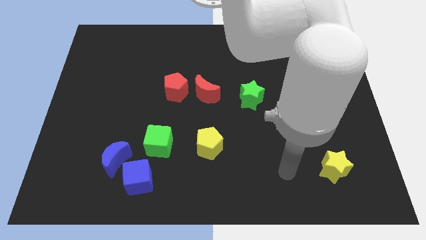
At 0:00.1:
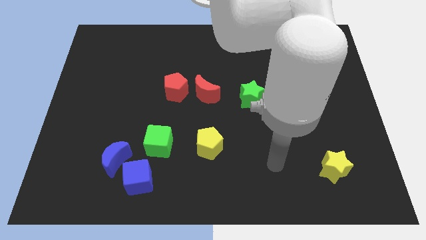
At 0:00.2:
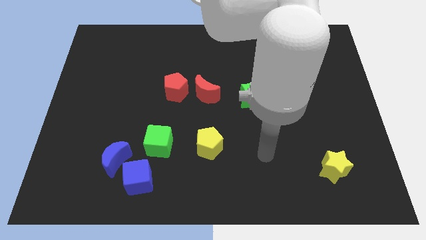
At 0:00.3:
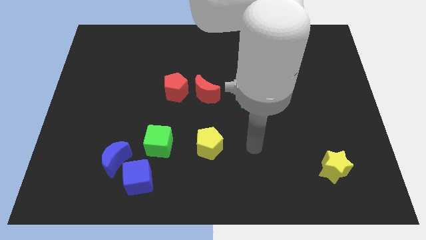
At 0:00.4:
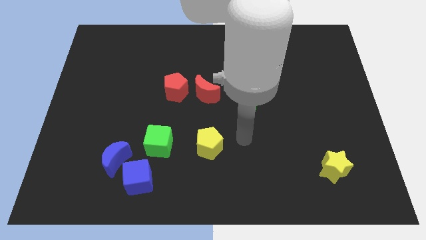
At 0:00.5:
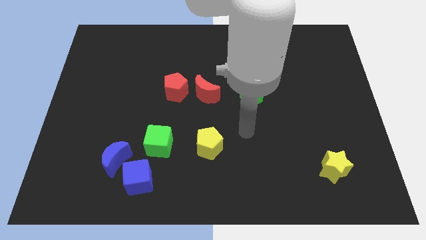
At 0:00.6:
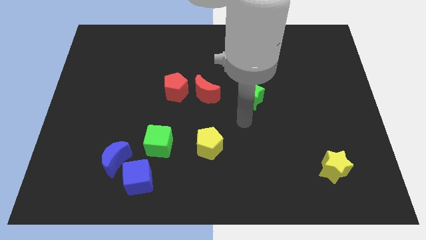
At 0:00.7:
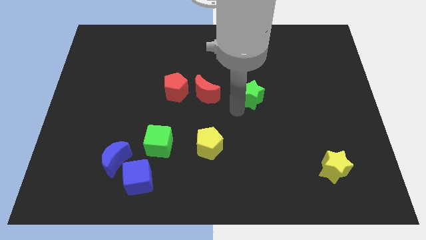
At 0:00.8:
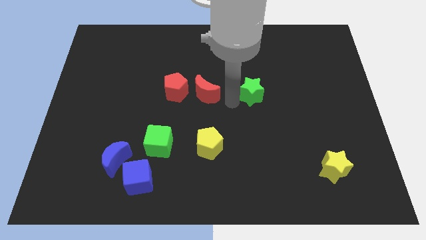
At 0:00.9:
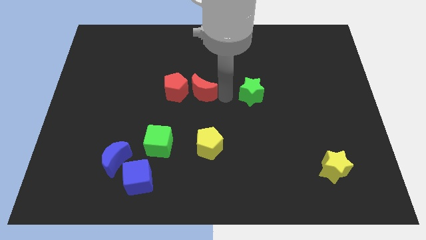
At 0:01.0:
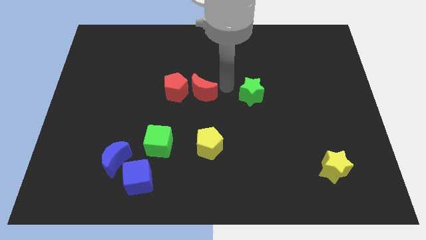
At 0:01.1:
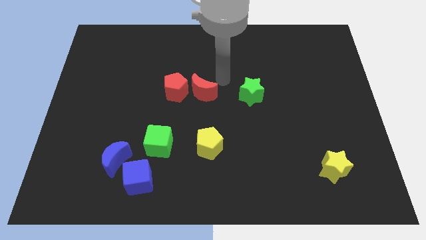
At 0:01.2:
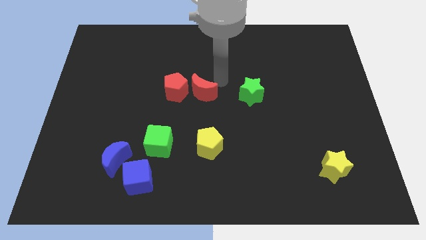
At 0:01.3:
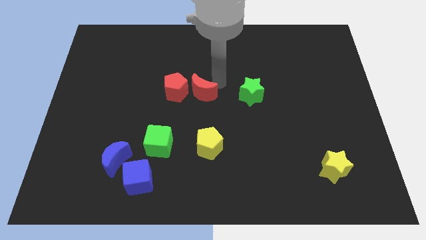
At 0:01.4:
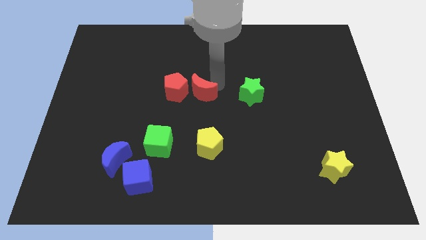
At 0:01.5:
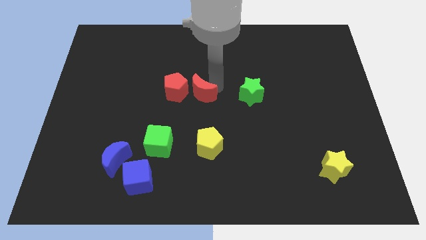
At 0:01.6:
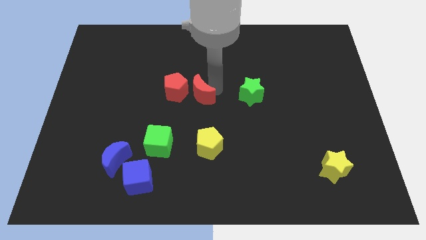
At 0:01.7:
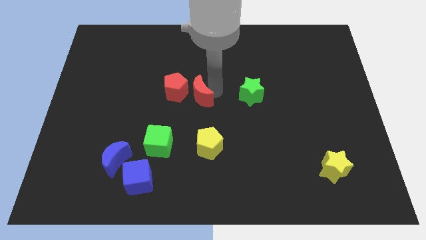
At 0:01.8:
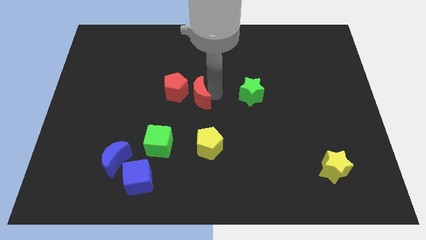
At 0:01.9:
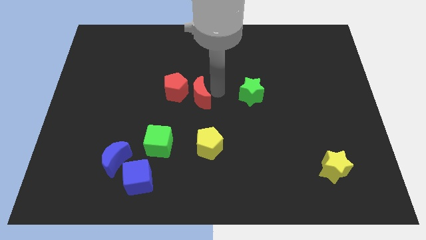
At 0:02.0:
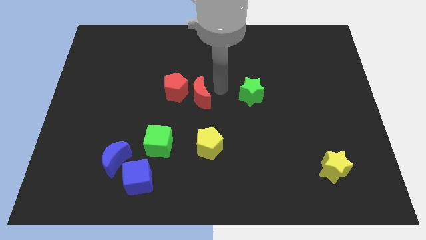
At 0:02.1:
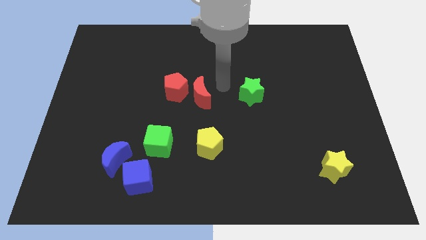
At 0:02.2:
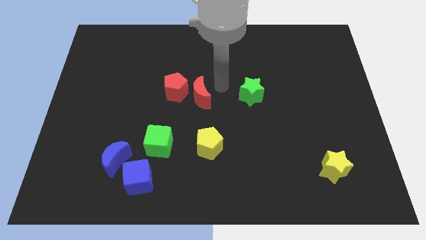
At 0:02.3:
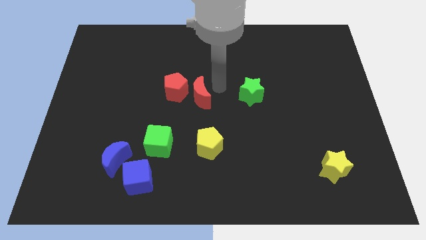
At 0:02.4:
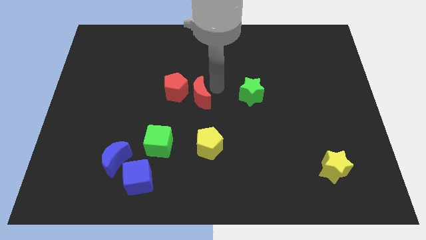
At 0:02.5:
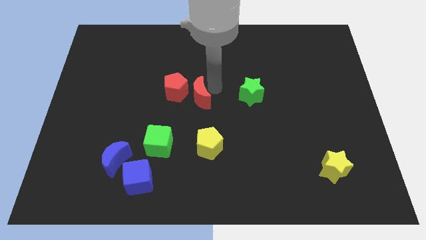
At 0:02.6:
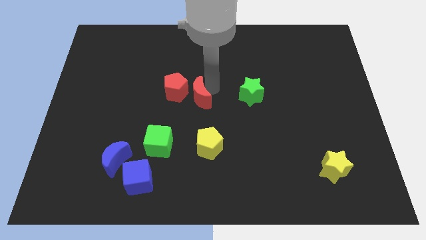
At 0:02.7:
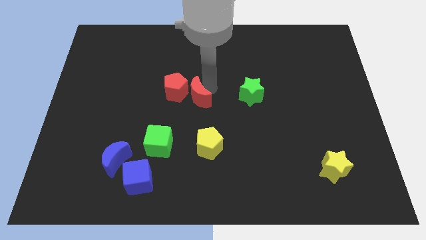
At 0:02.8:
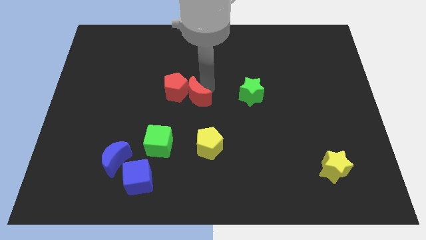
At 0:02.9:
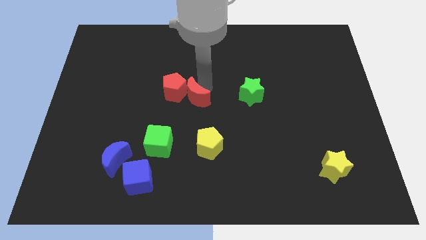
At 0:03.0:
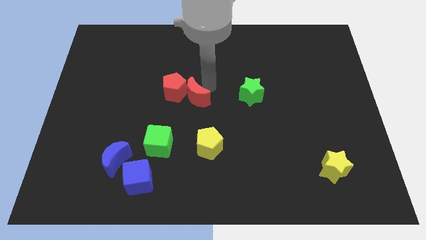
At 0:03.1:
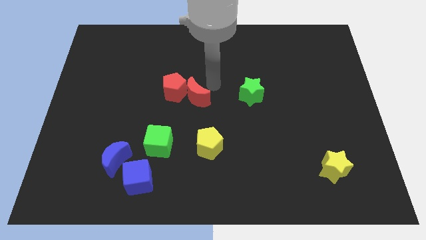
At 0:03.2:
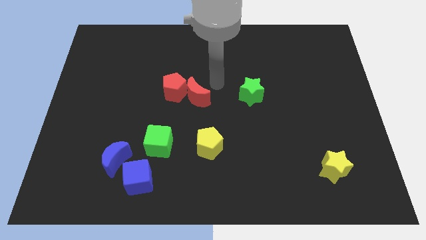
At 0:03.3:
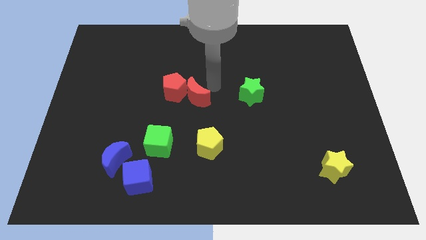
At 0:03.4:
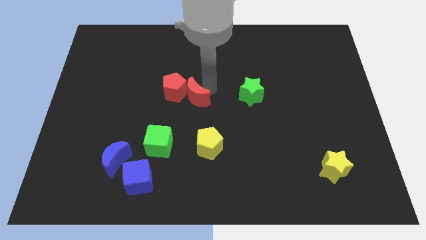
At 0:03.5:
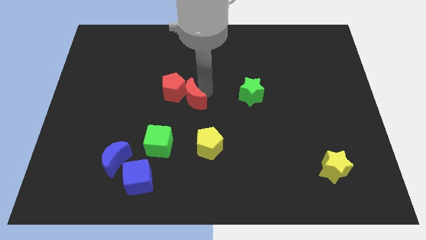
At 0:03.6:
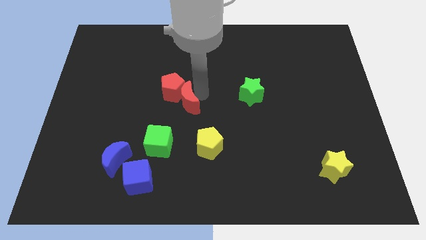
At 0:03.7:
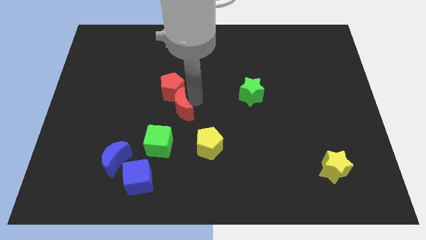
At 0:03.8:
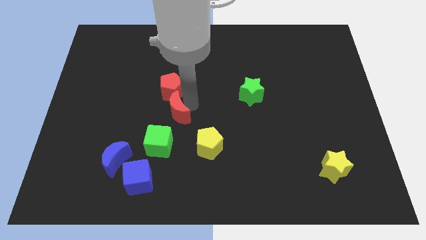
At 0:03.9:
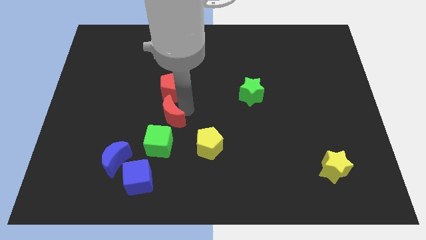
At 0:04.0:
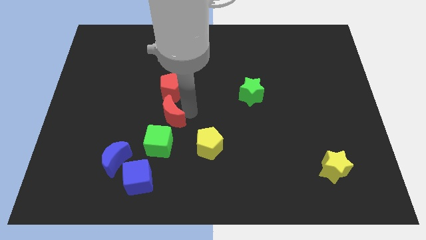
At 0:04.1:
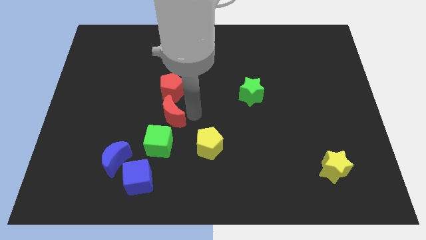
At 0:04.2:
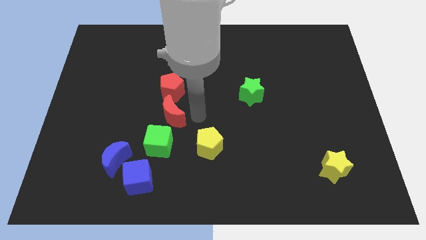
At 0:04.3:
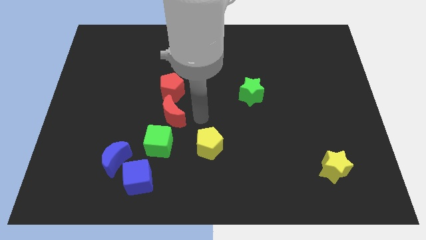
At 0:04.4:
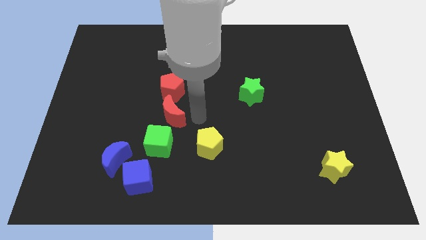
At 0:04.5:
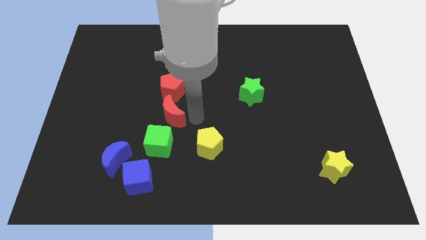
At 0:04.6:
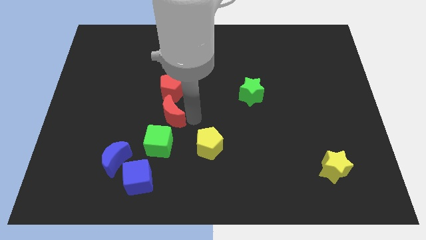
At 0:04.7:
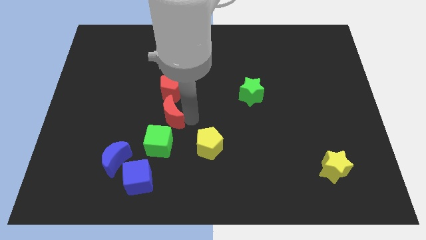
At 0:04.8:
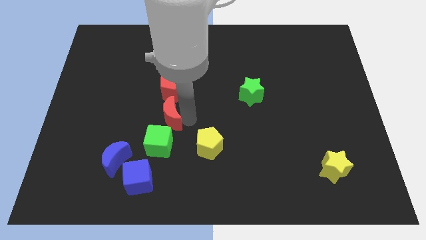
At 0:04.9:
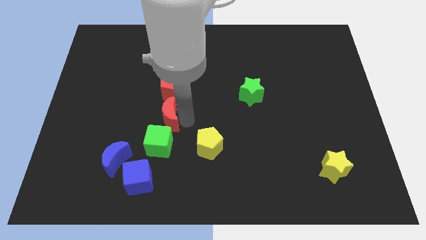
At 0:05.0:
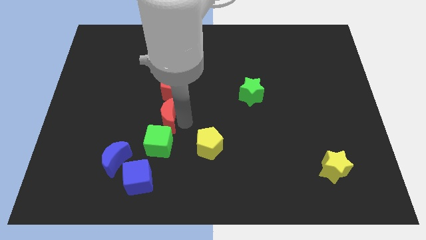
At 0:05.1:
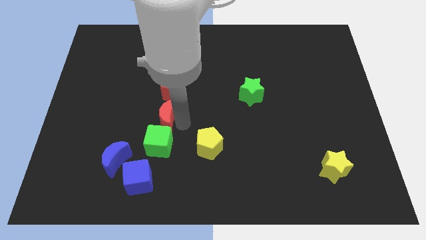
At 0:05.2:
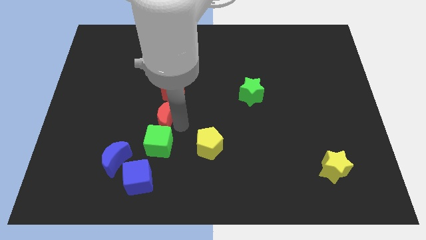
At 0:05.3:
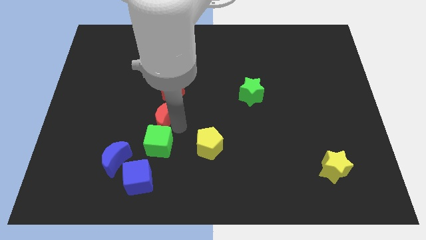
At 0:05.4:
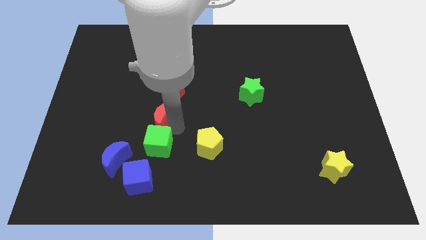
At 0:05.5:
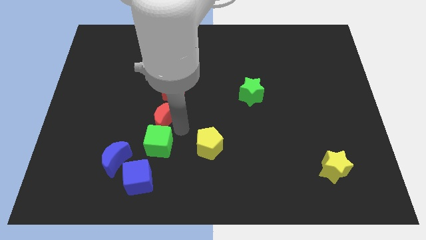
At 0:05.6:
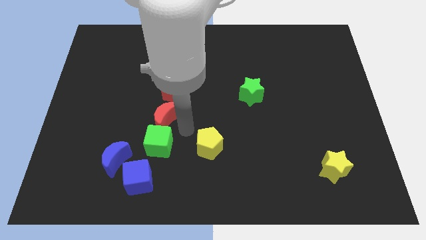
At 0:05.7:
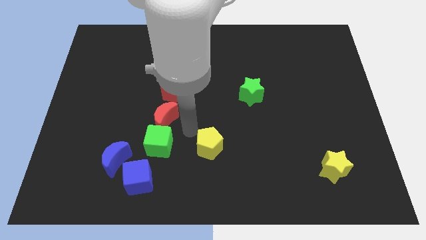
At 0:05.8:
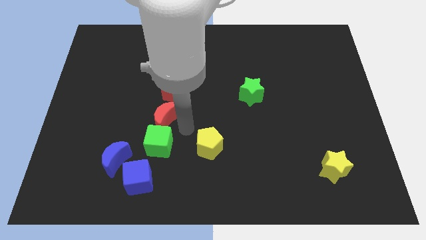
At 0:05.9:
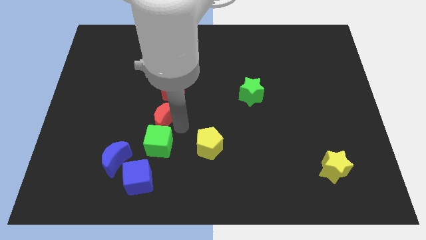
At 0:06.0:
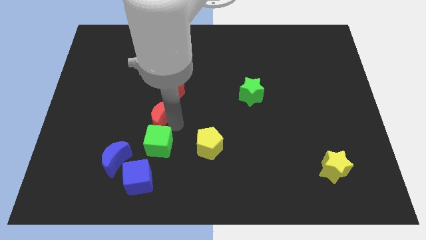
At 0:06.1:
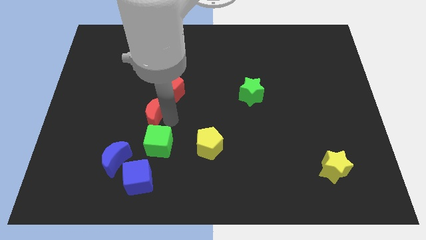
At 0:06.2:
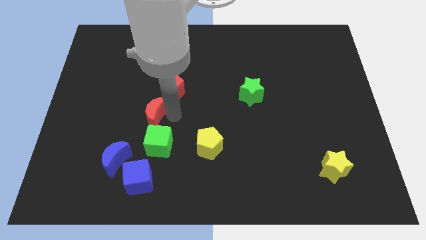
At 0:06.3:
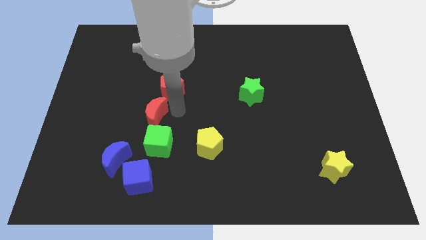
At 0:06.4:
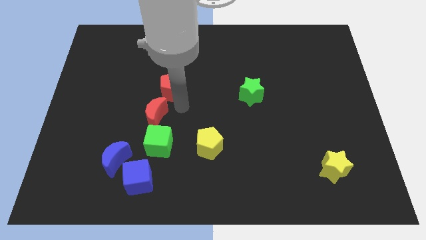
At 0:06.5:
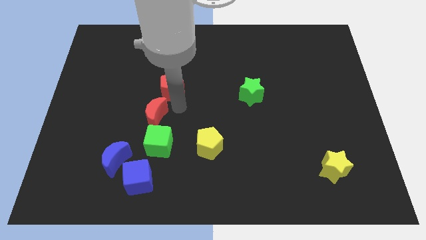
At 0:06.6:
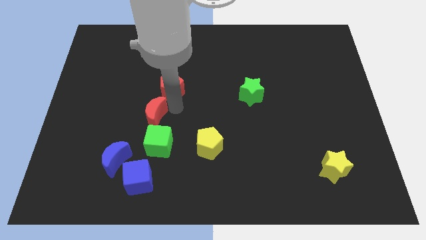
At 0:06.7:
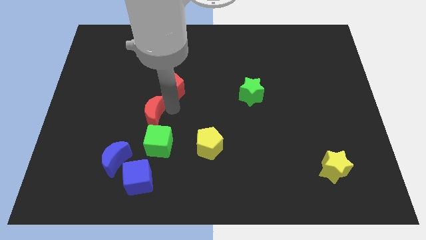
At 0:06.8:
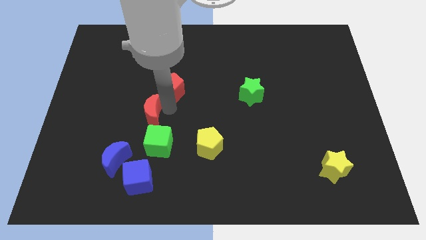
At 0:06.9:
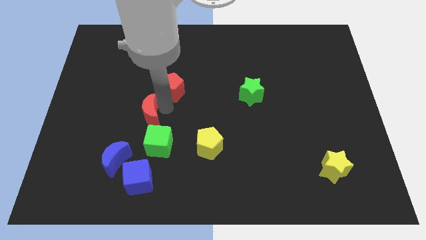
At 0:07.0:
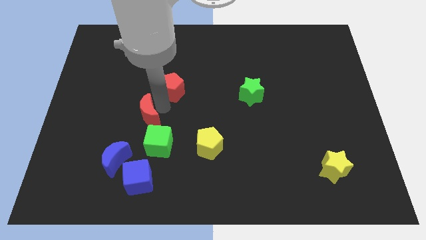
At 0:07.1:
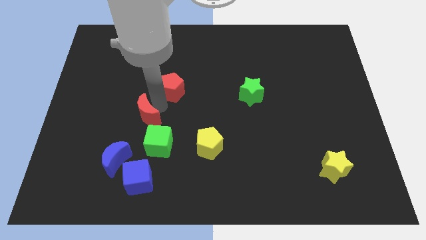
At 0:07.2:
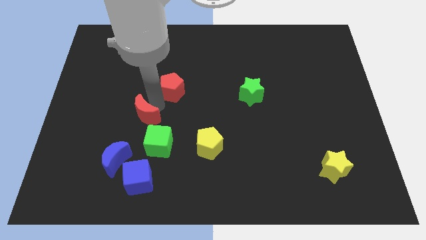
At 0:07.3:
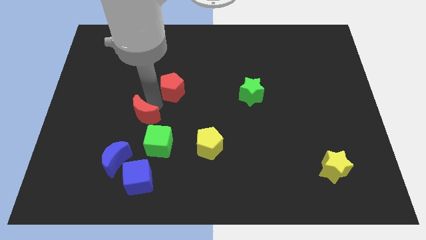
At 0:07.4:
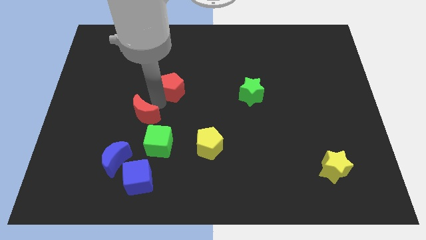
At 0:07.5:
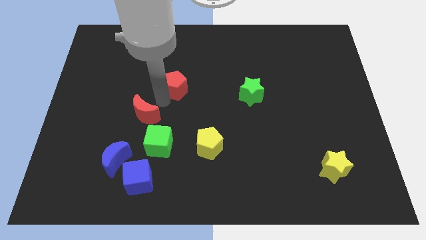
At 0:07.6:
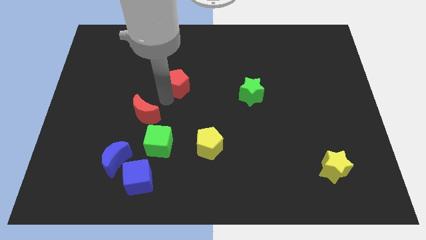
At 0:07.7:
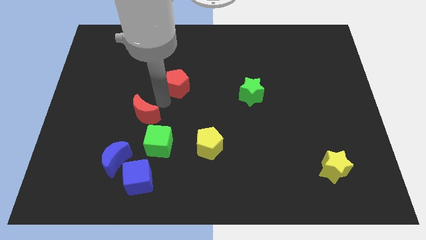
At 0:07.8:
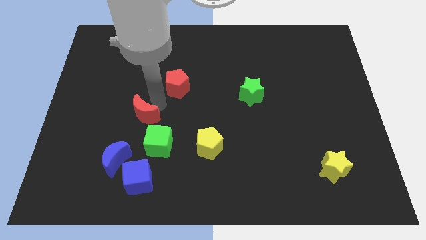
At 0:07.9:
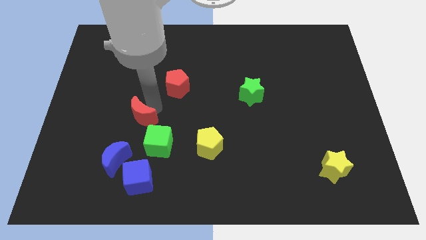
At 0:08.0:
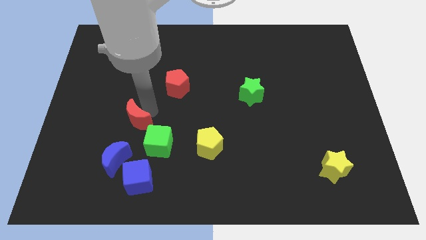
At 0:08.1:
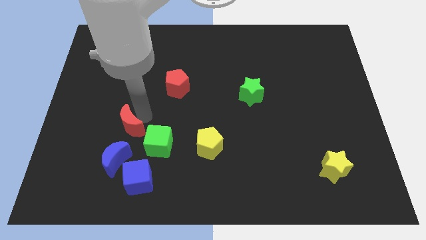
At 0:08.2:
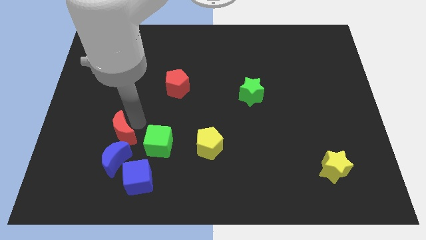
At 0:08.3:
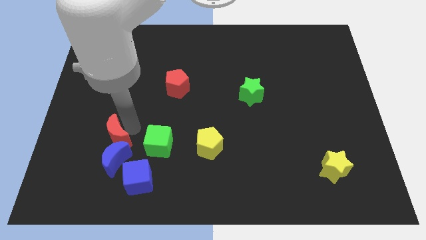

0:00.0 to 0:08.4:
move the red moon to the top left side of the blue moon
